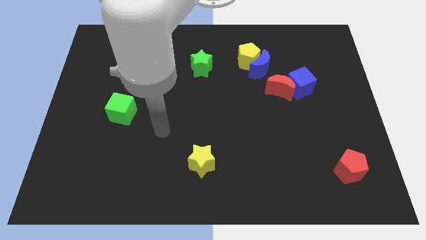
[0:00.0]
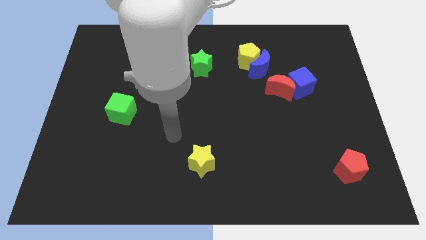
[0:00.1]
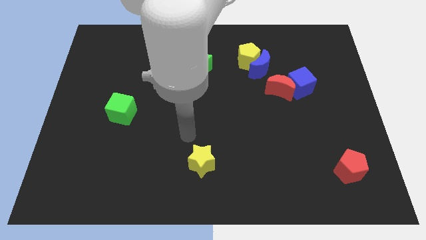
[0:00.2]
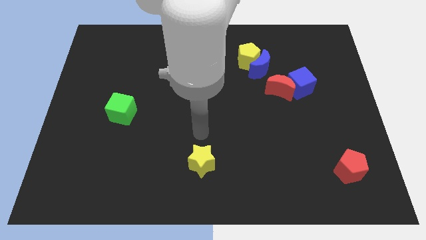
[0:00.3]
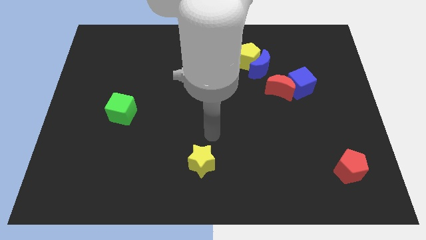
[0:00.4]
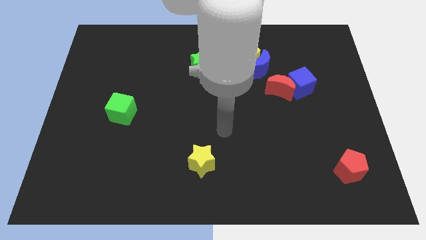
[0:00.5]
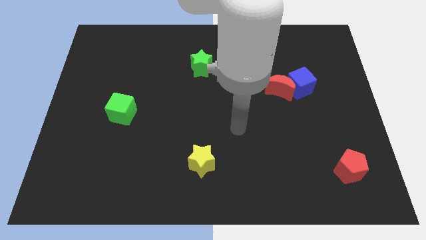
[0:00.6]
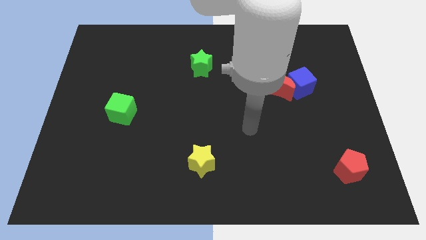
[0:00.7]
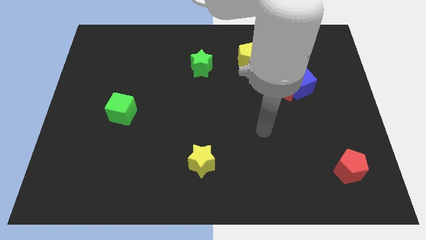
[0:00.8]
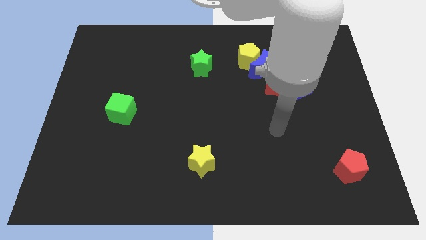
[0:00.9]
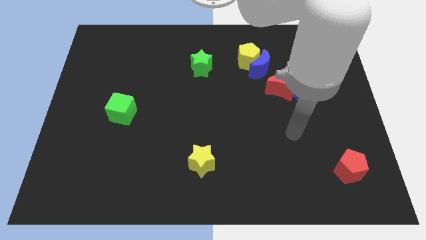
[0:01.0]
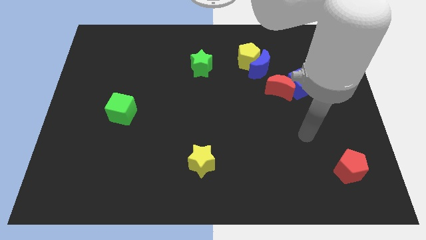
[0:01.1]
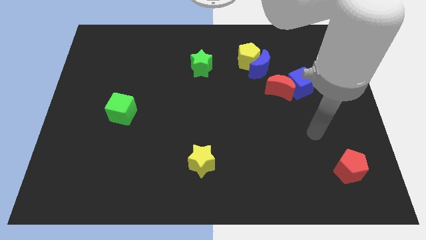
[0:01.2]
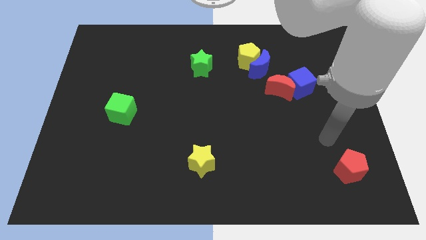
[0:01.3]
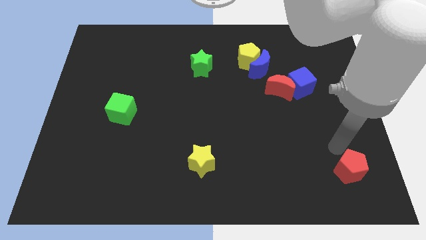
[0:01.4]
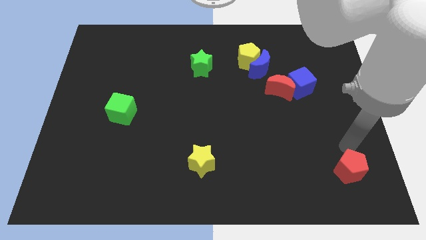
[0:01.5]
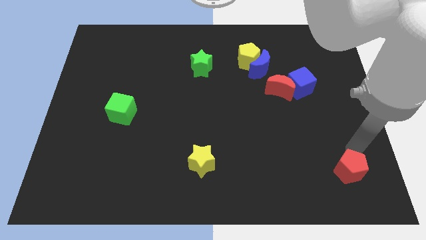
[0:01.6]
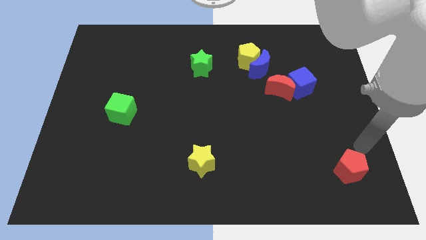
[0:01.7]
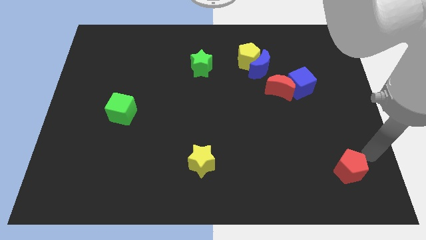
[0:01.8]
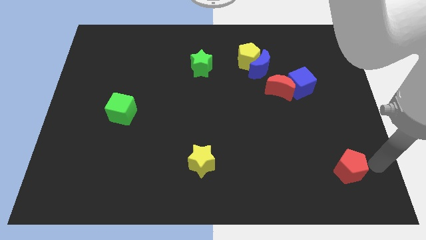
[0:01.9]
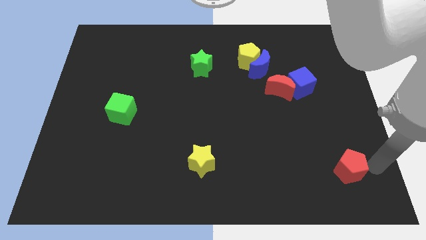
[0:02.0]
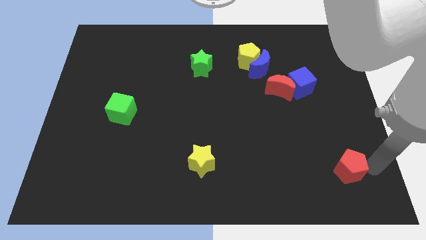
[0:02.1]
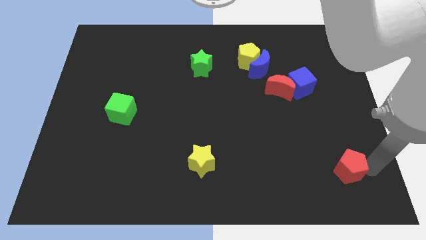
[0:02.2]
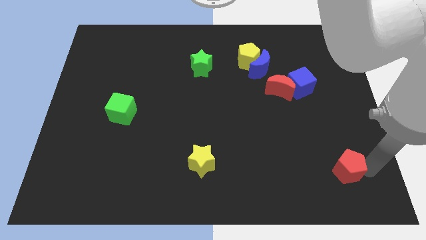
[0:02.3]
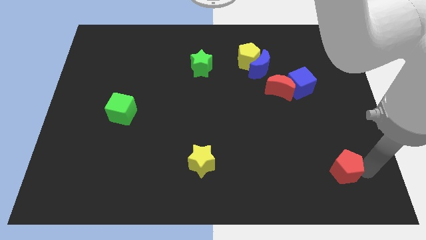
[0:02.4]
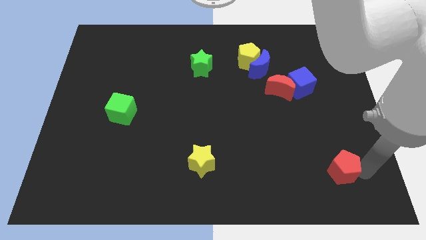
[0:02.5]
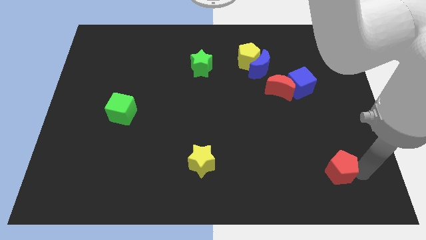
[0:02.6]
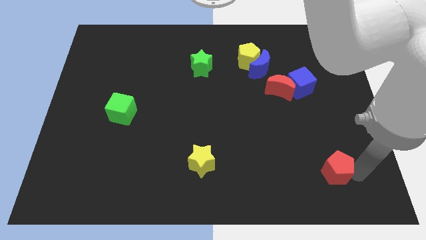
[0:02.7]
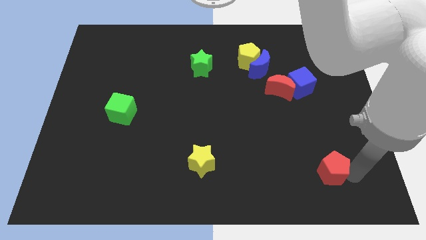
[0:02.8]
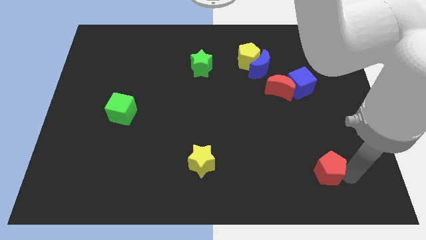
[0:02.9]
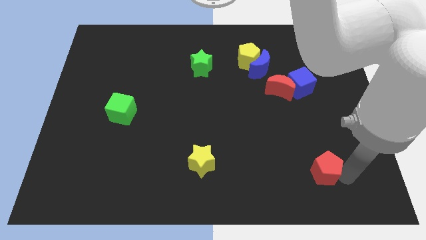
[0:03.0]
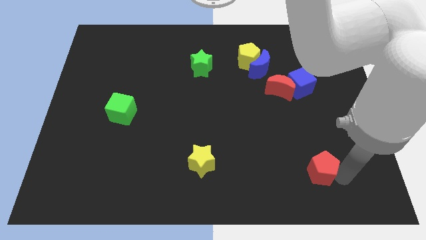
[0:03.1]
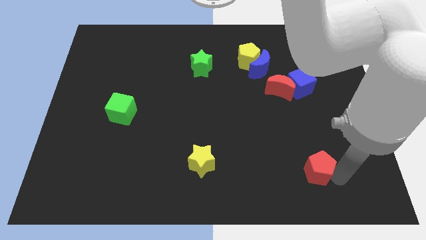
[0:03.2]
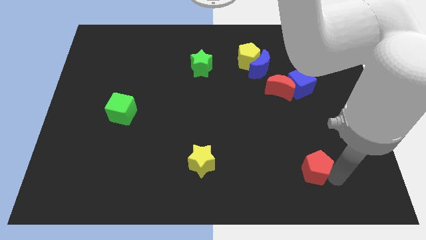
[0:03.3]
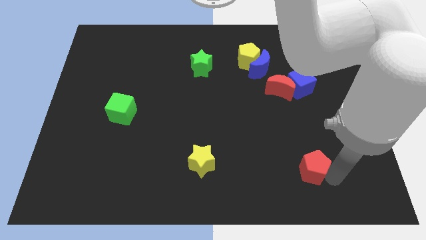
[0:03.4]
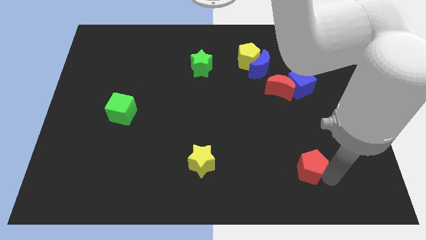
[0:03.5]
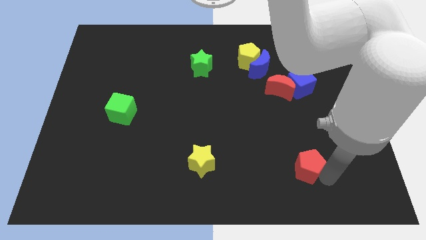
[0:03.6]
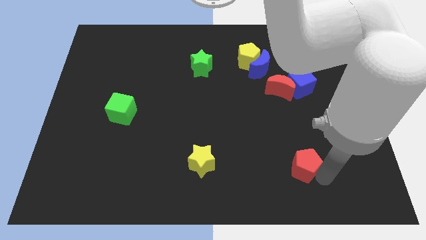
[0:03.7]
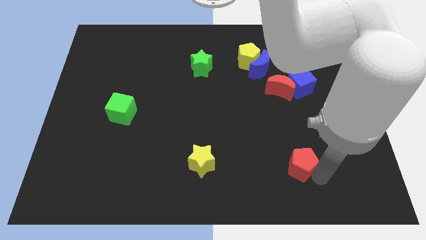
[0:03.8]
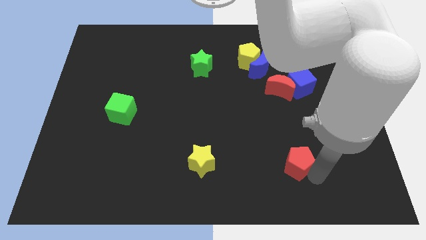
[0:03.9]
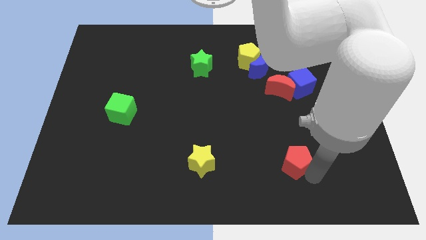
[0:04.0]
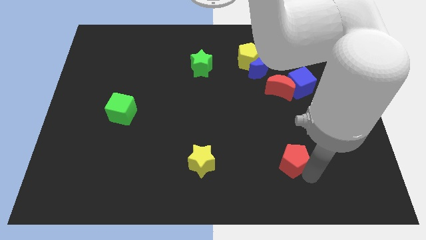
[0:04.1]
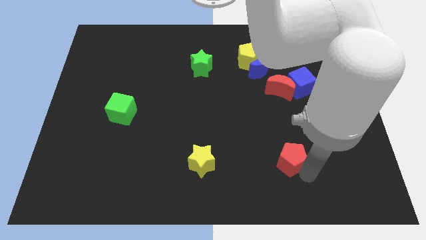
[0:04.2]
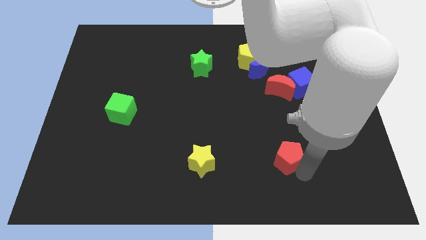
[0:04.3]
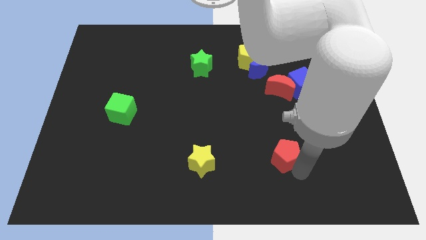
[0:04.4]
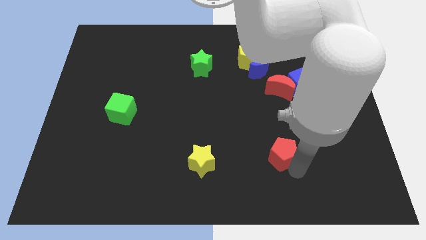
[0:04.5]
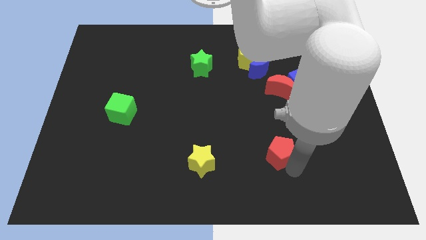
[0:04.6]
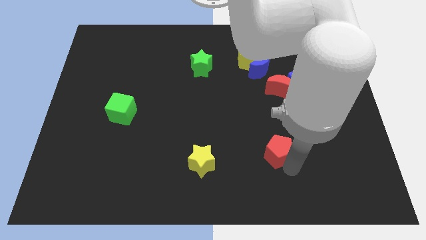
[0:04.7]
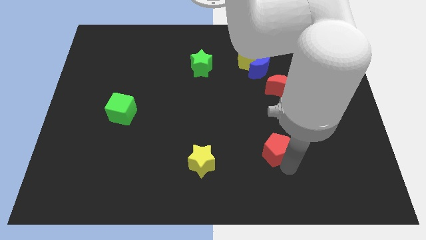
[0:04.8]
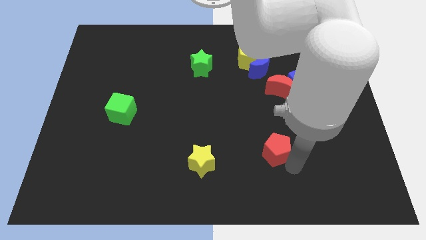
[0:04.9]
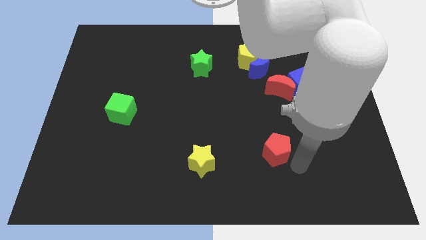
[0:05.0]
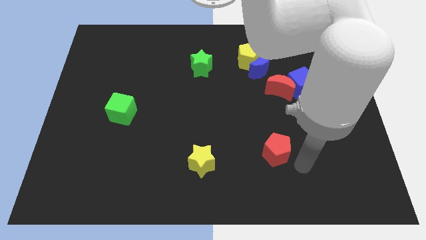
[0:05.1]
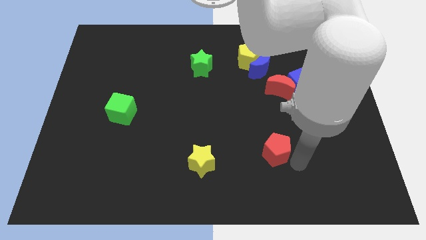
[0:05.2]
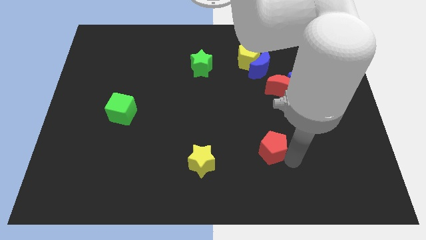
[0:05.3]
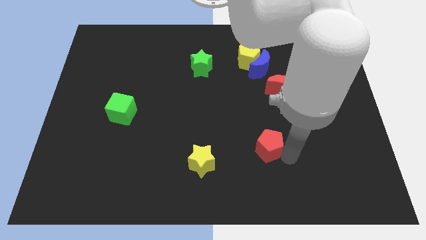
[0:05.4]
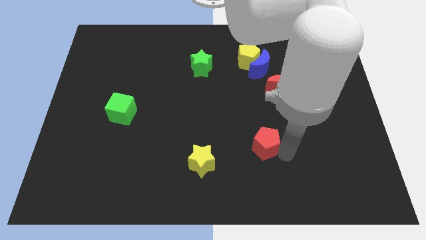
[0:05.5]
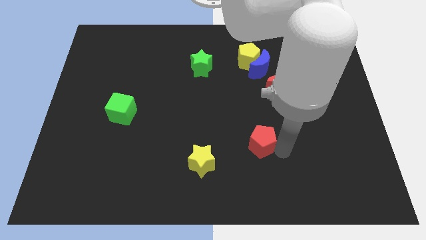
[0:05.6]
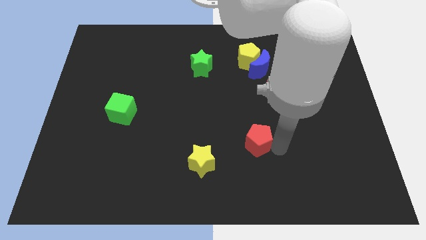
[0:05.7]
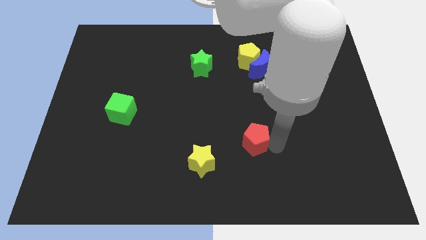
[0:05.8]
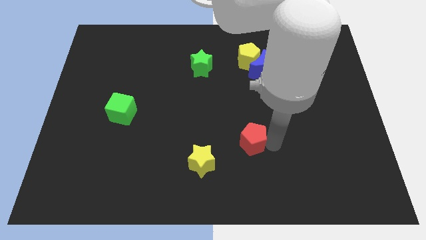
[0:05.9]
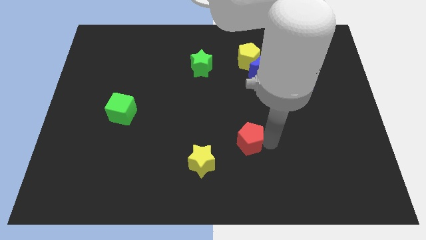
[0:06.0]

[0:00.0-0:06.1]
put the red pentagon diagonally up and to the right of the yellow star
